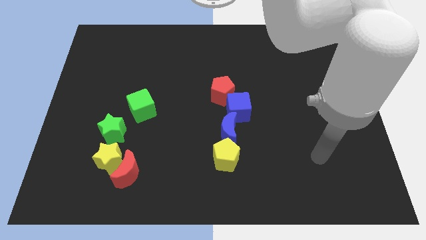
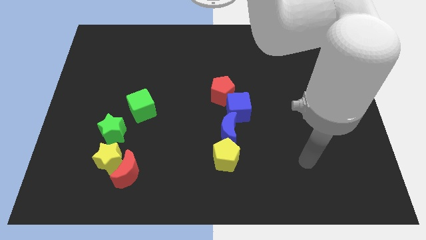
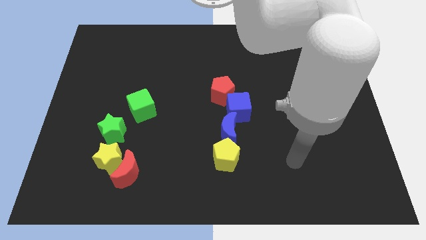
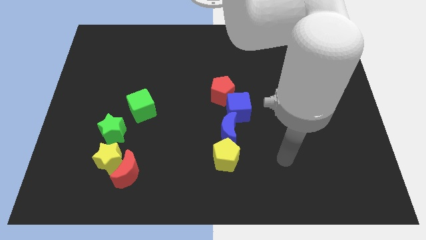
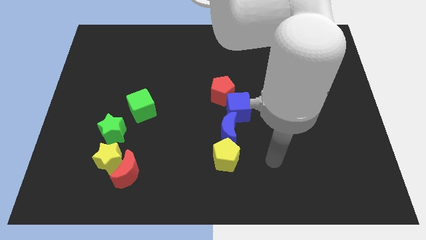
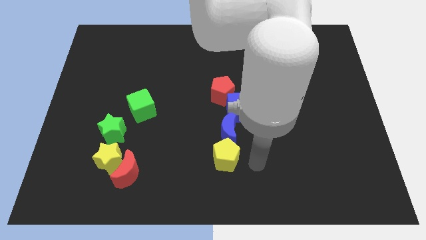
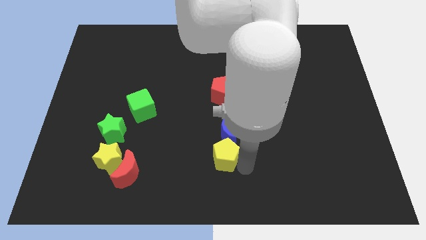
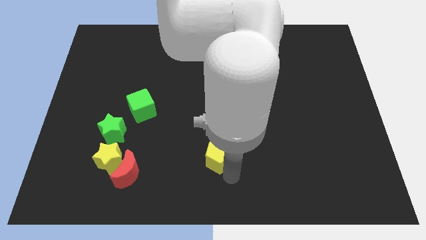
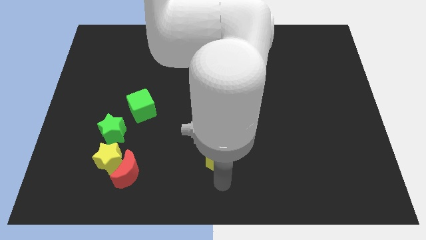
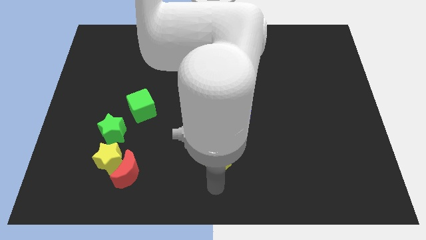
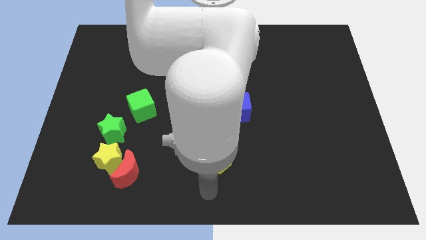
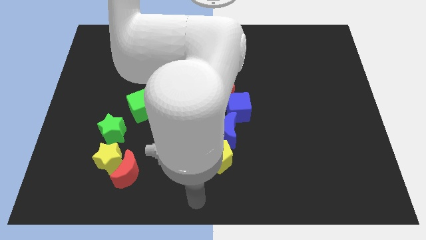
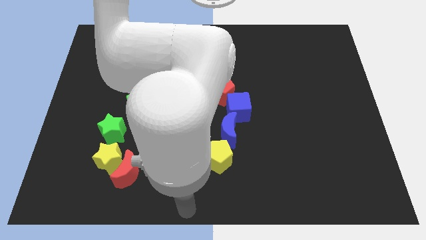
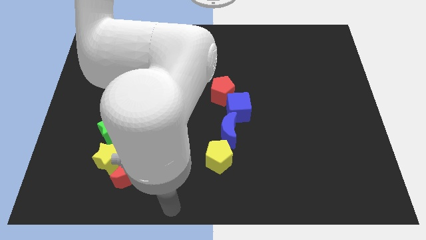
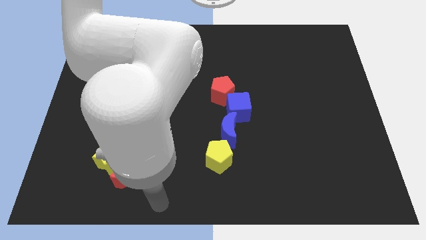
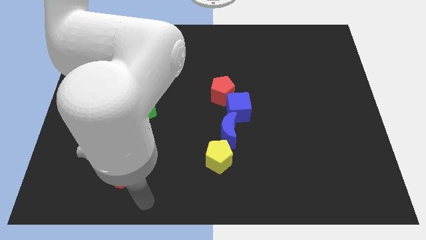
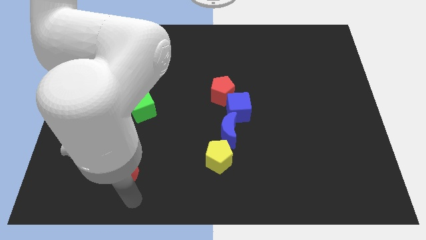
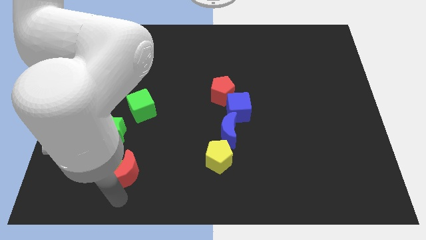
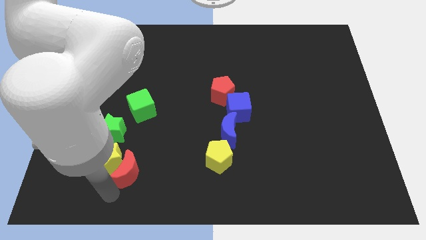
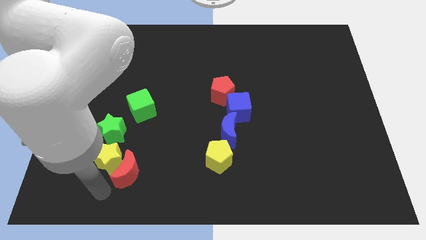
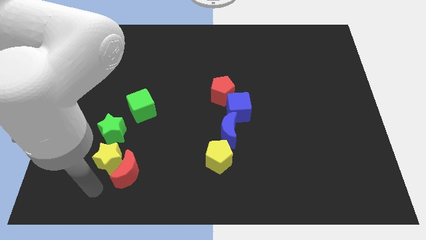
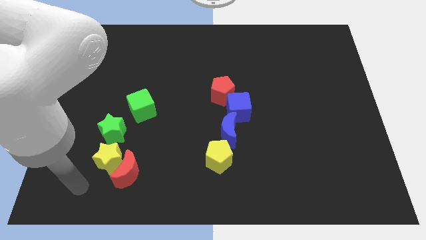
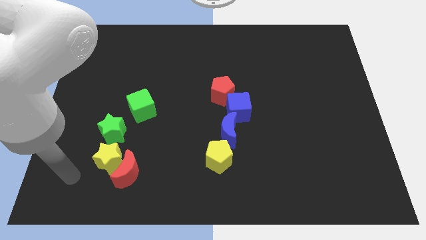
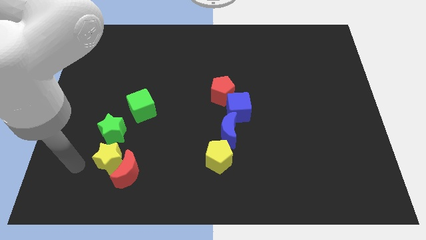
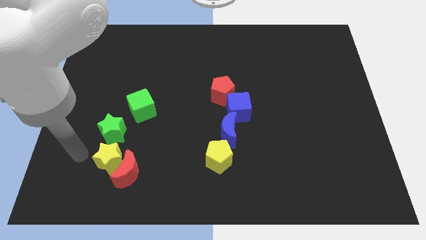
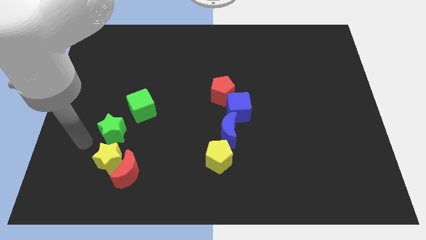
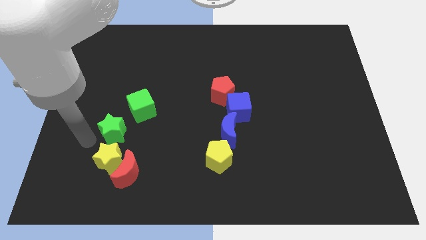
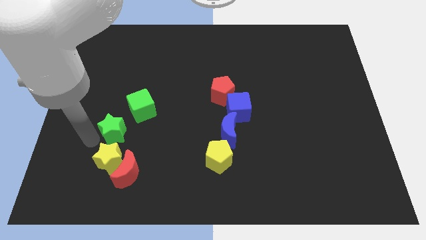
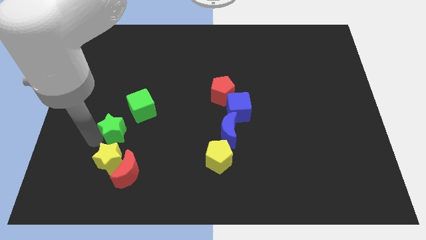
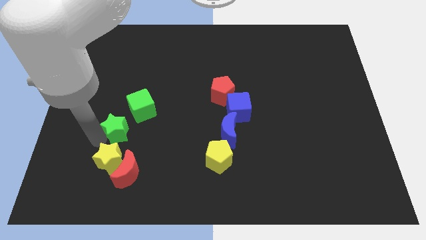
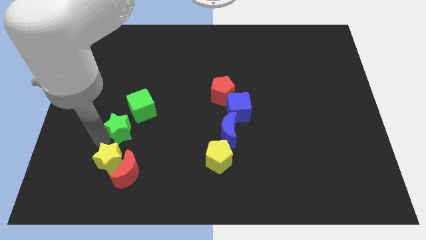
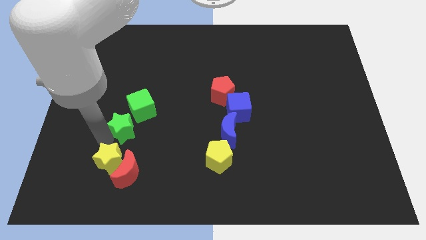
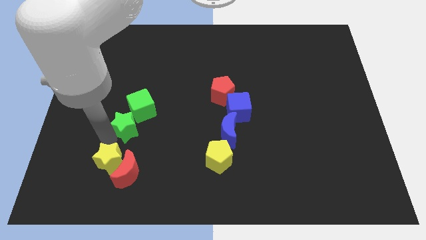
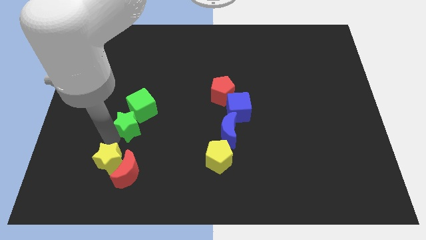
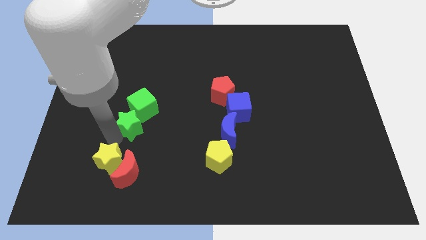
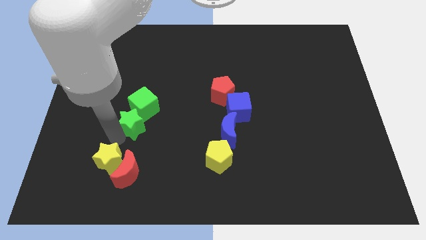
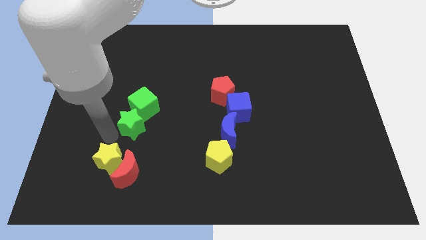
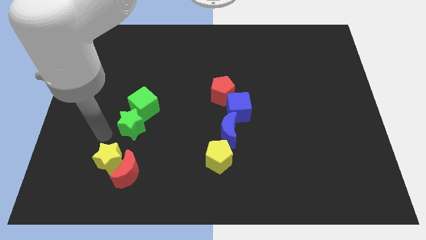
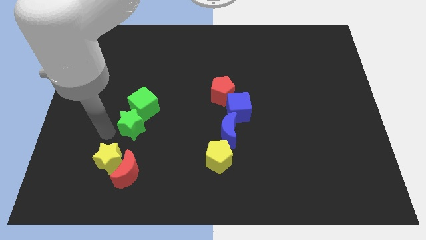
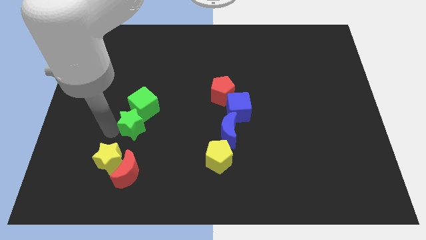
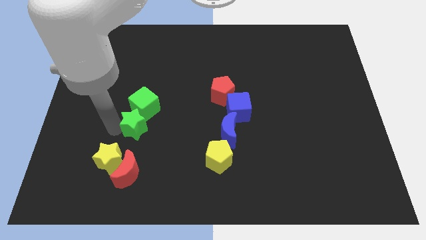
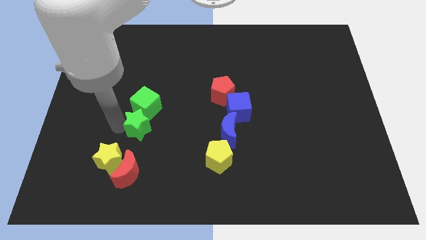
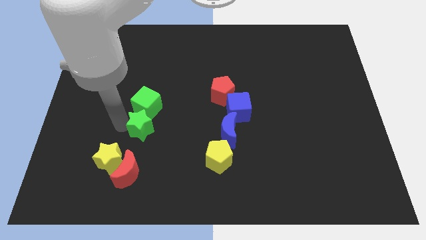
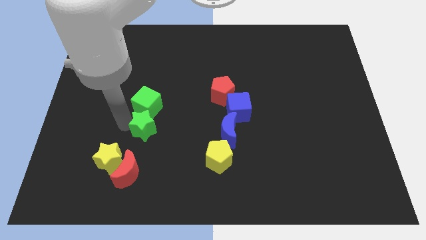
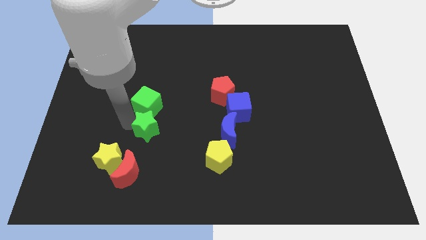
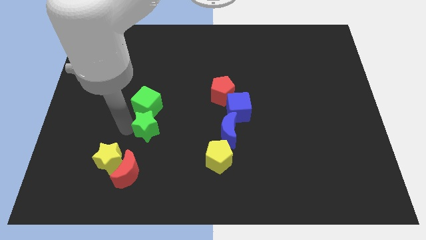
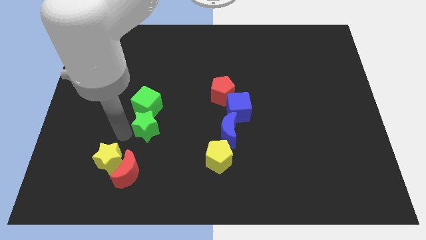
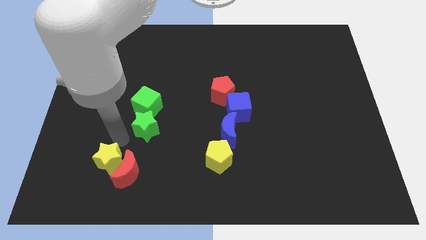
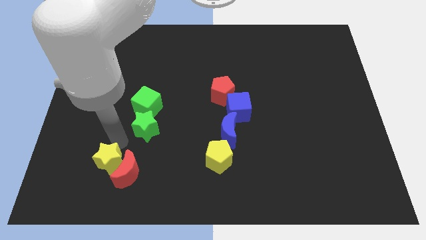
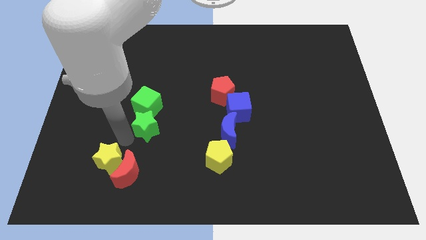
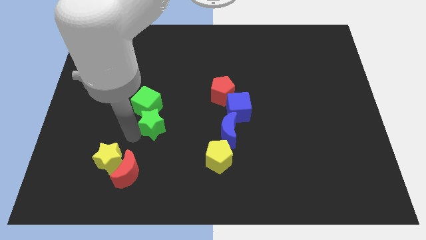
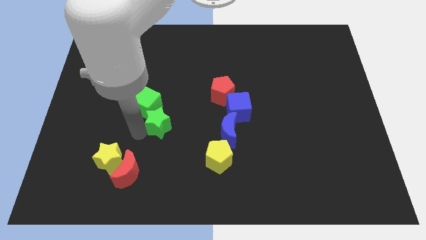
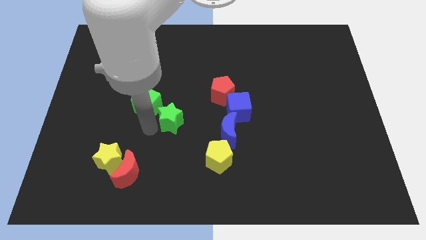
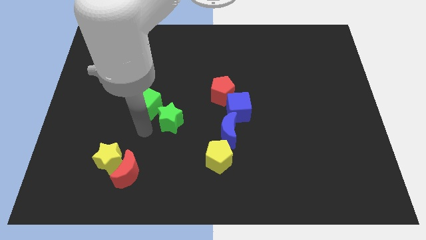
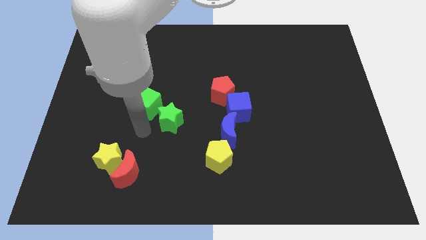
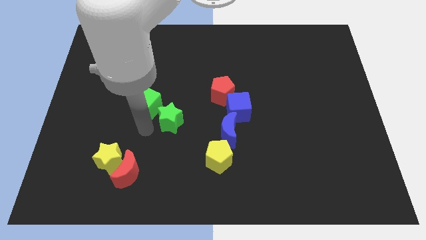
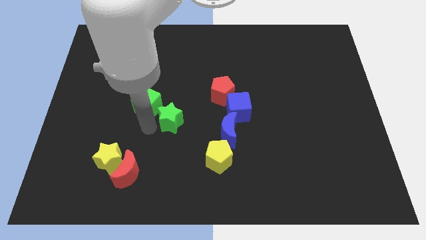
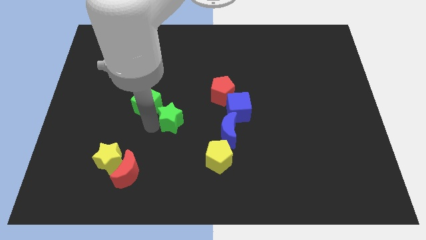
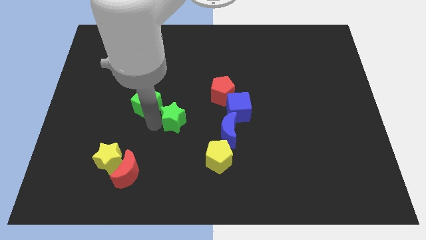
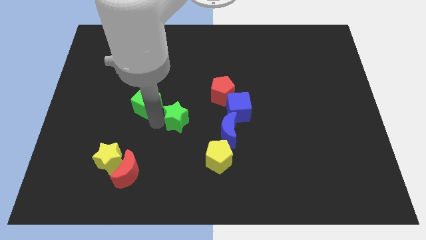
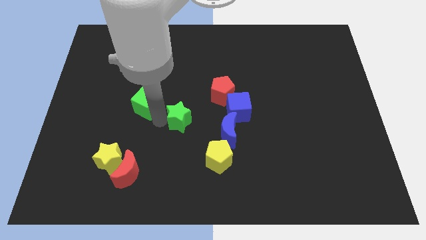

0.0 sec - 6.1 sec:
put the green star to the bottom left of the red pentagon

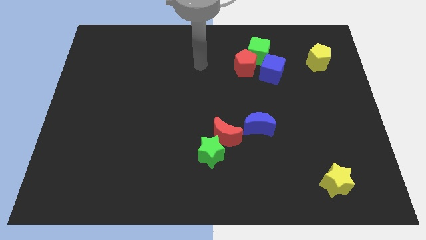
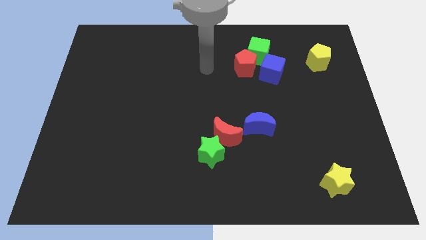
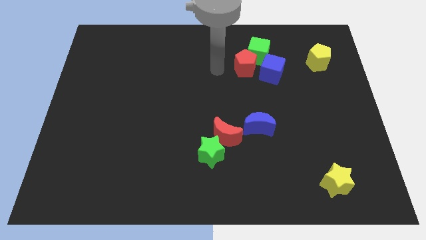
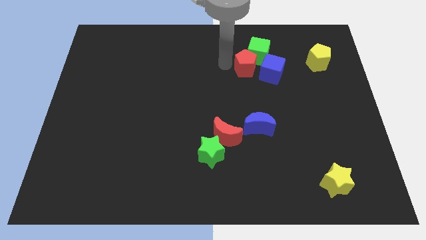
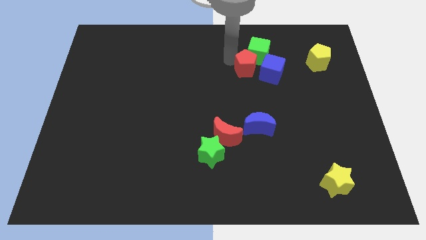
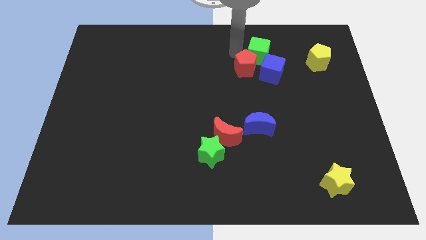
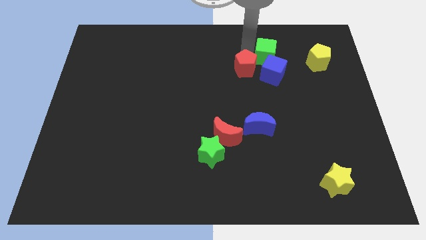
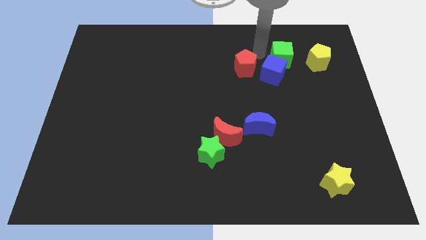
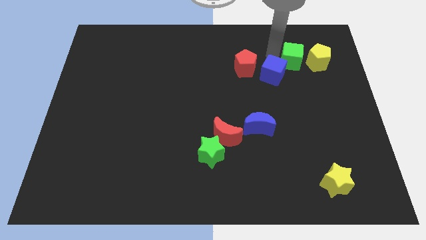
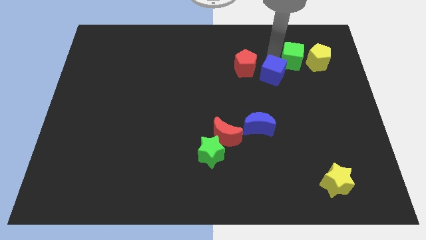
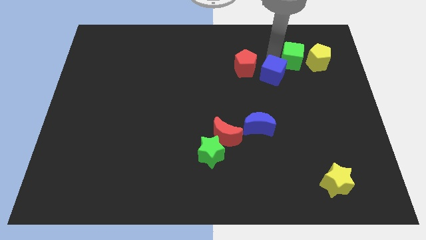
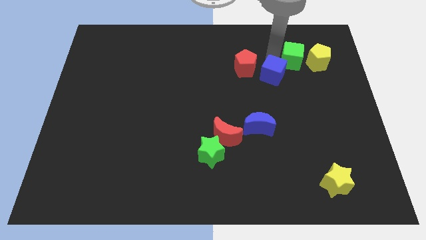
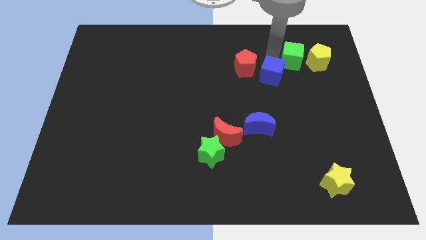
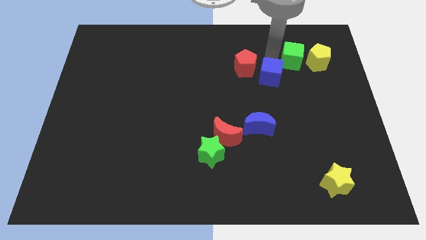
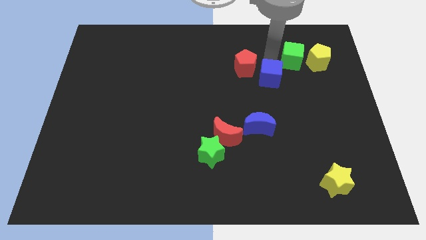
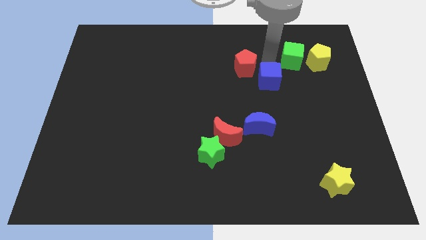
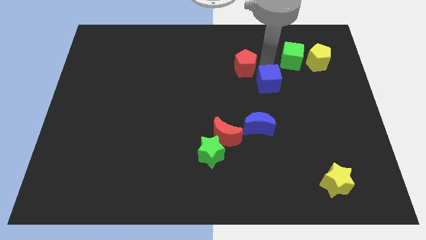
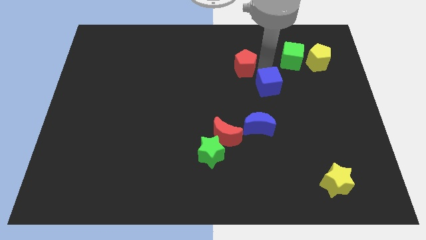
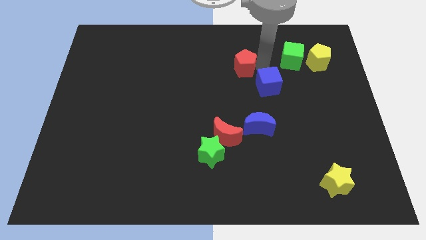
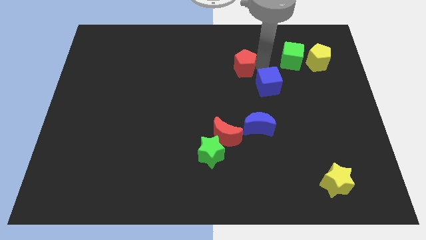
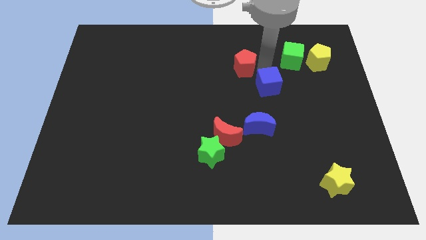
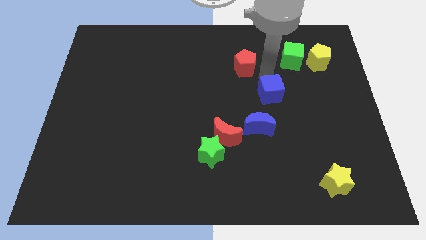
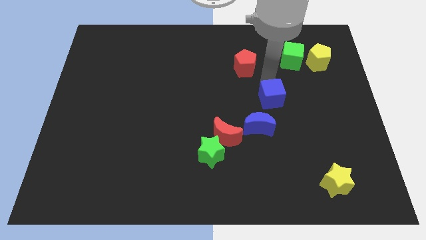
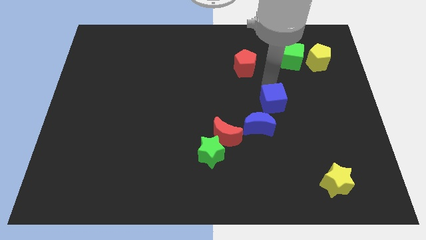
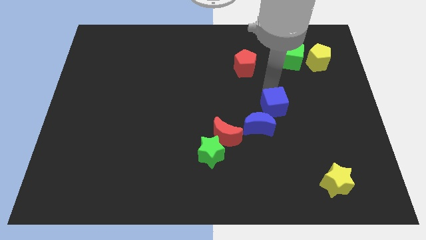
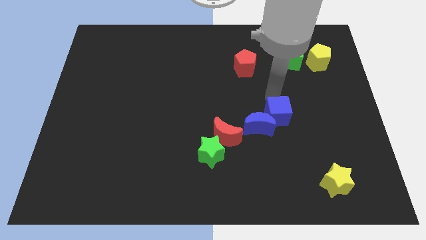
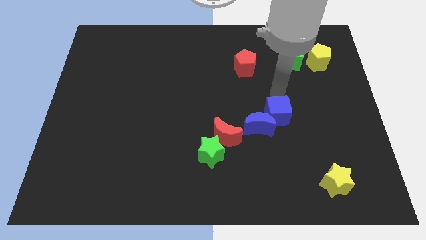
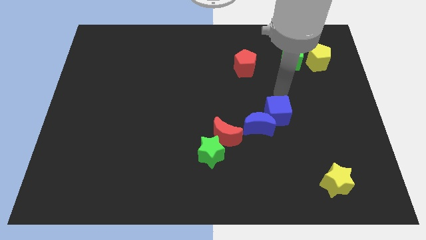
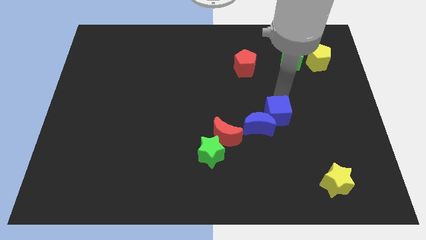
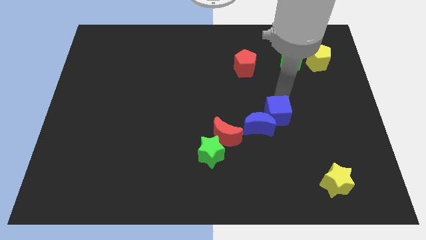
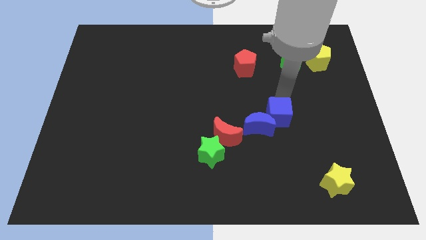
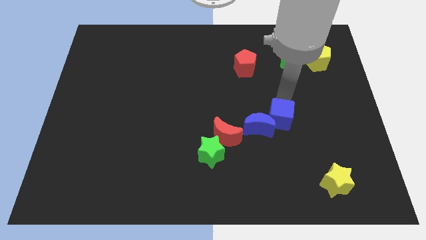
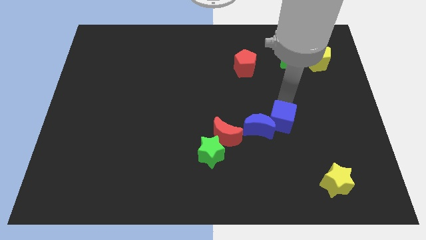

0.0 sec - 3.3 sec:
move the blue cube to the right of the red moon
